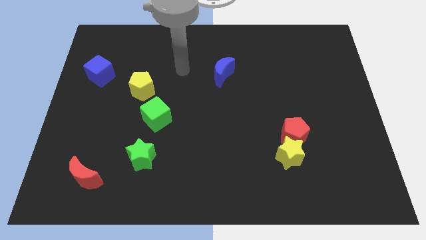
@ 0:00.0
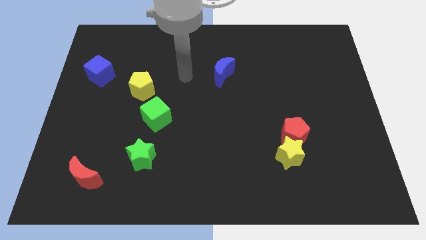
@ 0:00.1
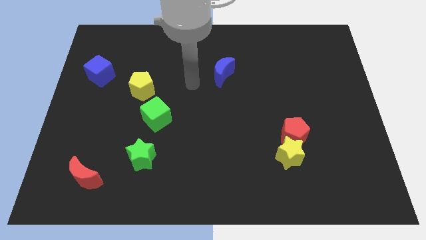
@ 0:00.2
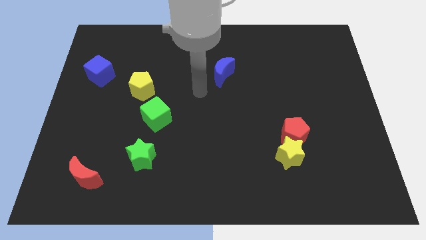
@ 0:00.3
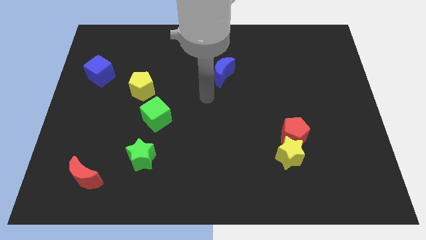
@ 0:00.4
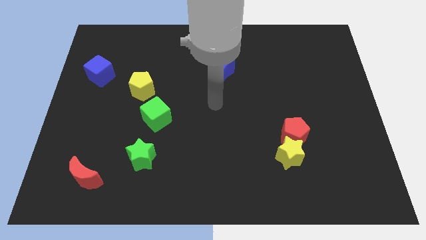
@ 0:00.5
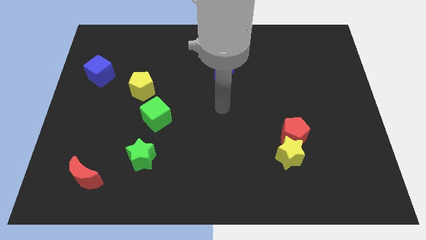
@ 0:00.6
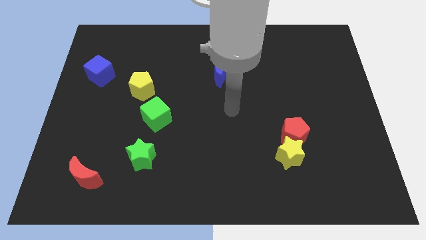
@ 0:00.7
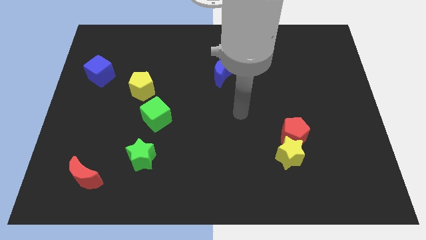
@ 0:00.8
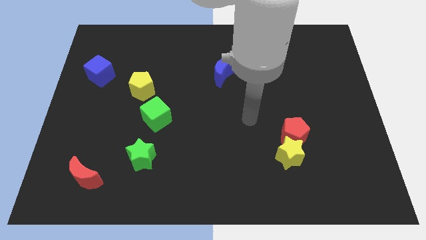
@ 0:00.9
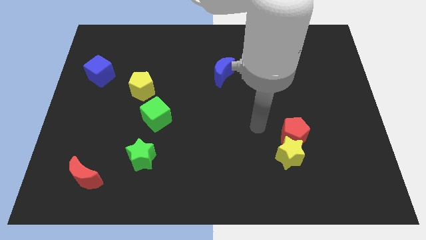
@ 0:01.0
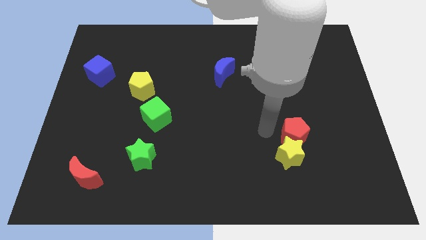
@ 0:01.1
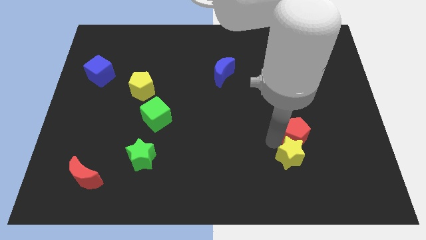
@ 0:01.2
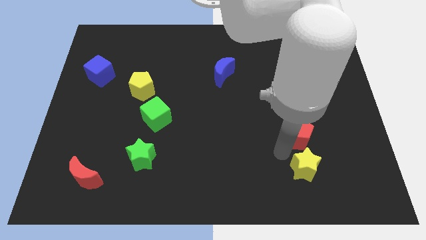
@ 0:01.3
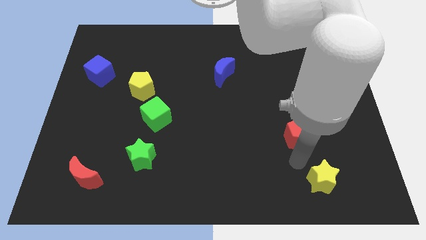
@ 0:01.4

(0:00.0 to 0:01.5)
separate the red pentagon from the yellow star

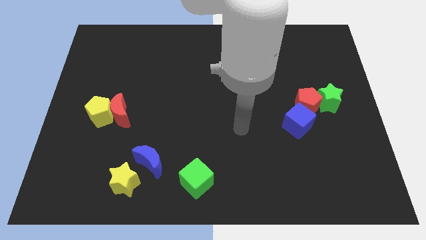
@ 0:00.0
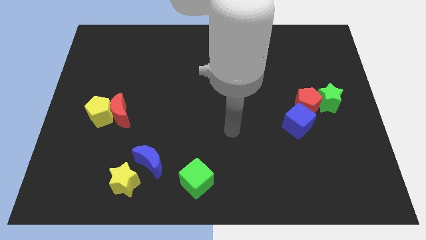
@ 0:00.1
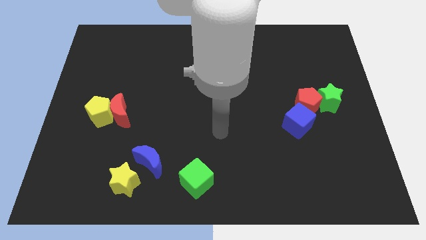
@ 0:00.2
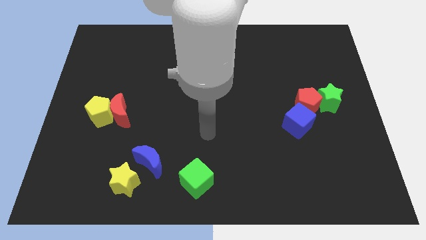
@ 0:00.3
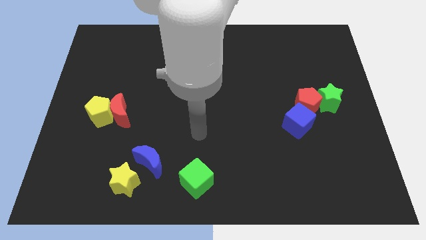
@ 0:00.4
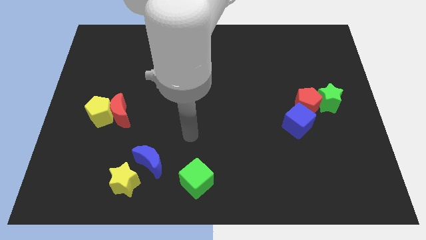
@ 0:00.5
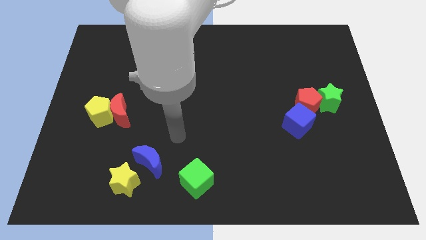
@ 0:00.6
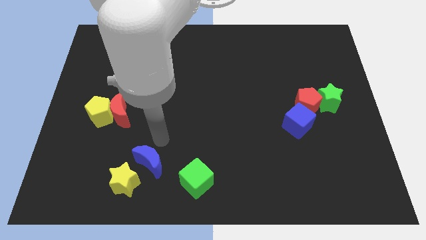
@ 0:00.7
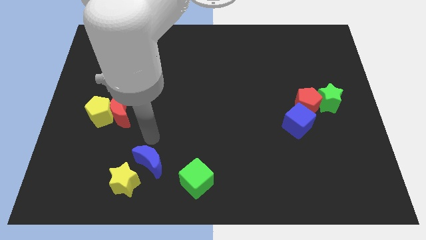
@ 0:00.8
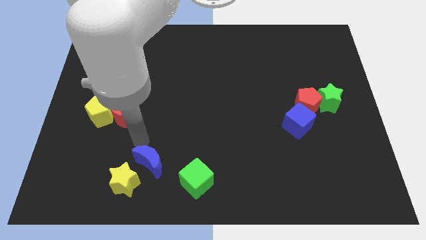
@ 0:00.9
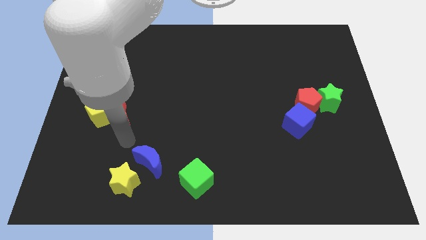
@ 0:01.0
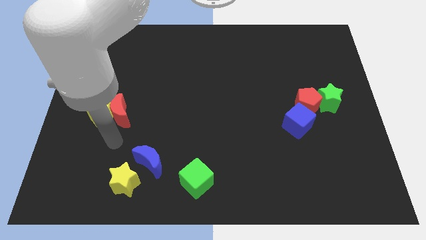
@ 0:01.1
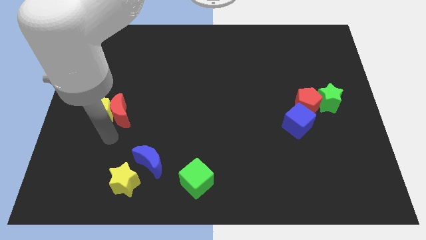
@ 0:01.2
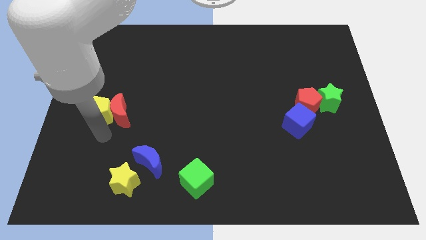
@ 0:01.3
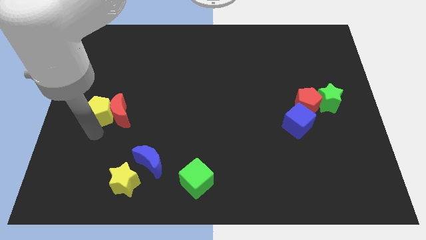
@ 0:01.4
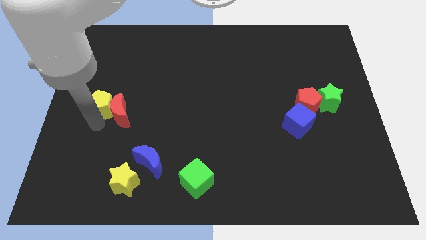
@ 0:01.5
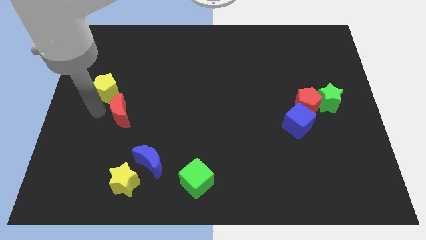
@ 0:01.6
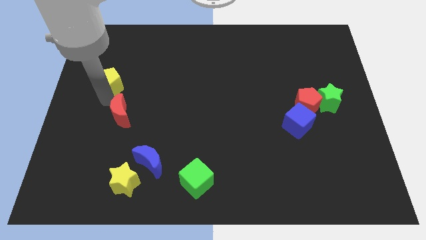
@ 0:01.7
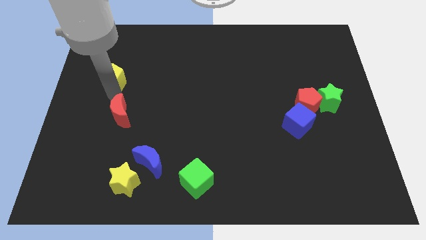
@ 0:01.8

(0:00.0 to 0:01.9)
move the red moon away from the yellow pentagon

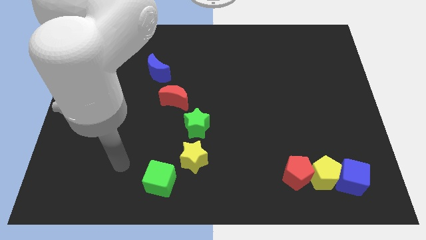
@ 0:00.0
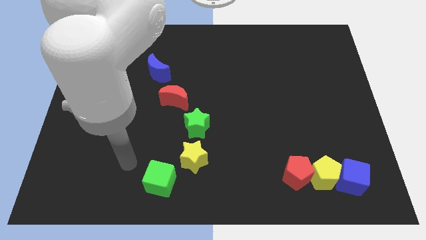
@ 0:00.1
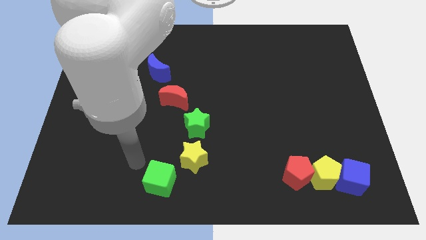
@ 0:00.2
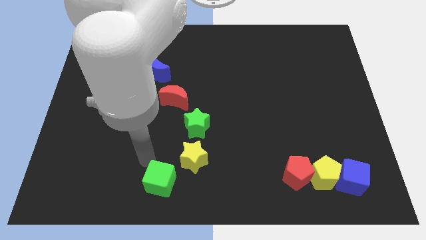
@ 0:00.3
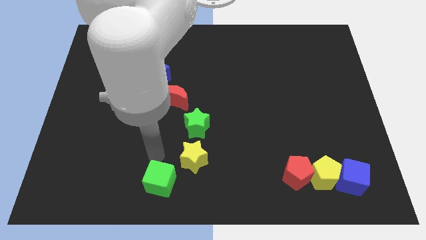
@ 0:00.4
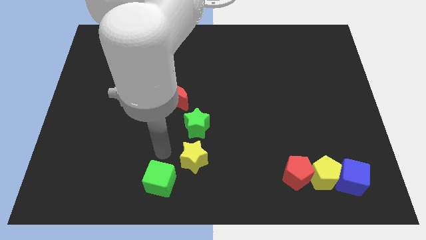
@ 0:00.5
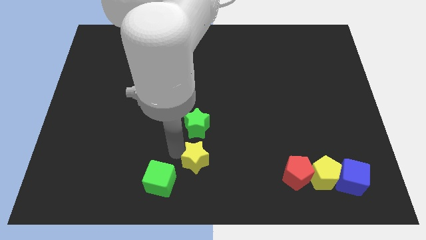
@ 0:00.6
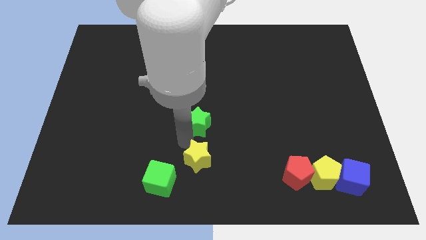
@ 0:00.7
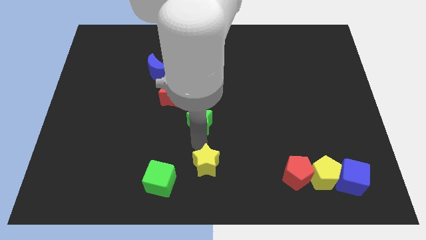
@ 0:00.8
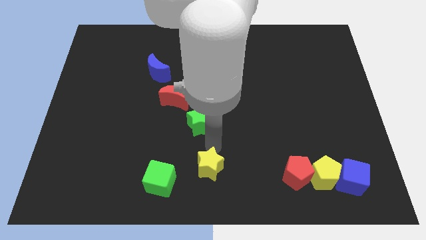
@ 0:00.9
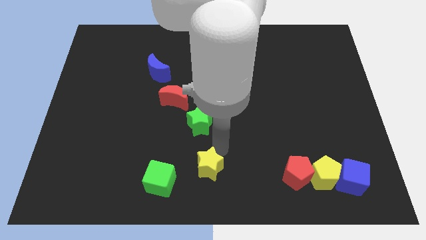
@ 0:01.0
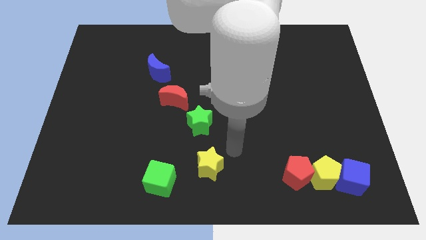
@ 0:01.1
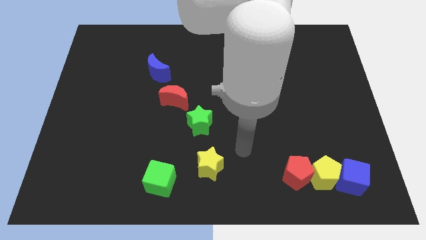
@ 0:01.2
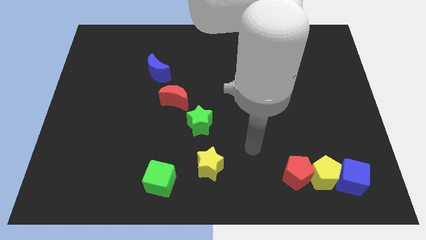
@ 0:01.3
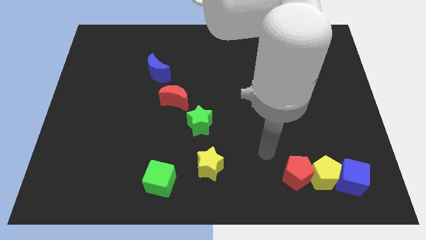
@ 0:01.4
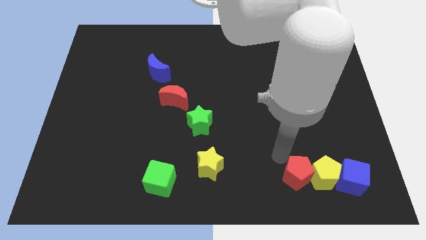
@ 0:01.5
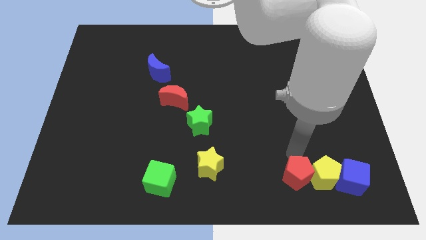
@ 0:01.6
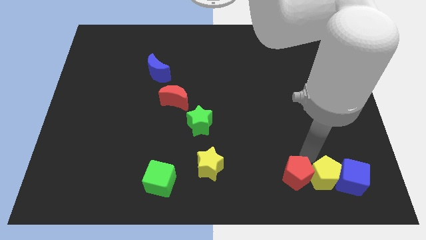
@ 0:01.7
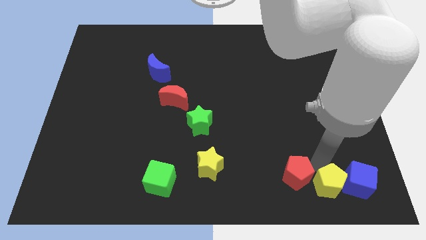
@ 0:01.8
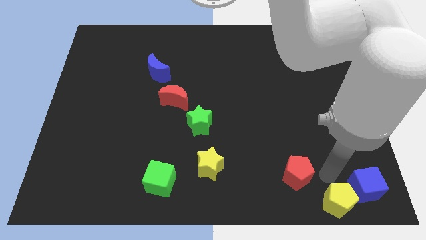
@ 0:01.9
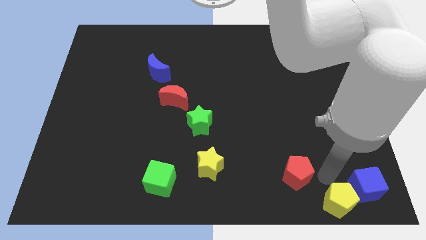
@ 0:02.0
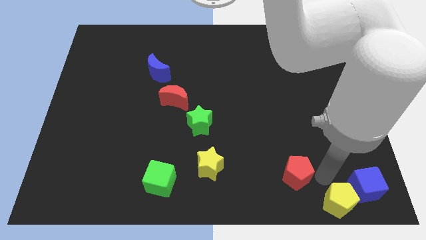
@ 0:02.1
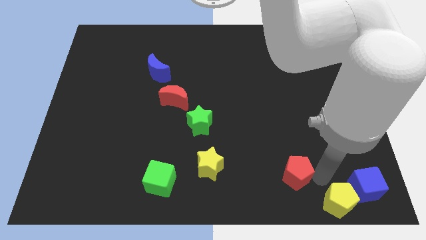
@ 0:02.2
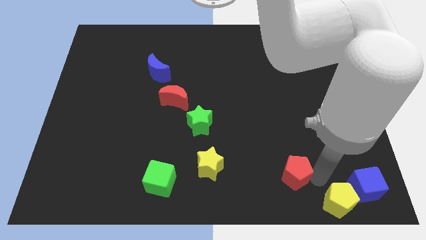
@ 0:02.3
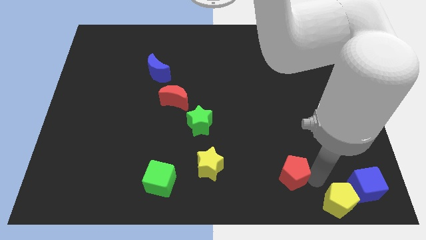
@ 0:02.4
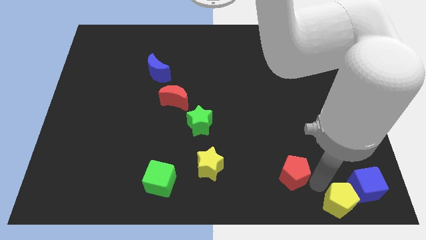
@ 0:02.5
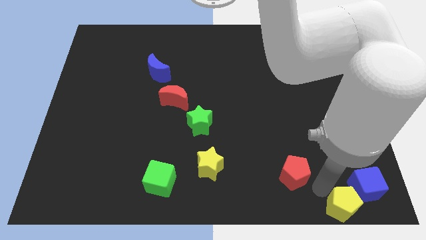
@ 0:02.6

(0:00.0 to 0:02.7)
pull the red pentagon apart from the yellow pentagon

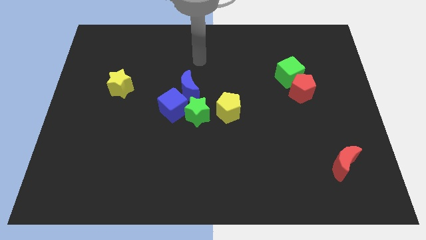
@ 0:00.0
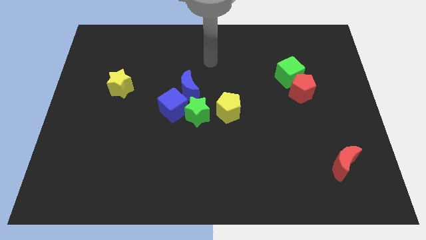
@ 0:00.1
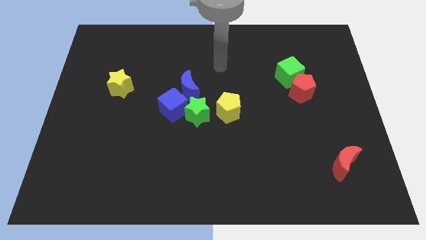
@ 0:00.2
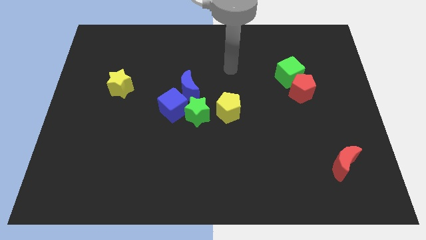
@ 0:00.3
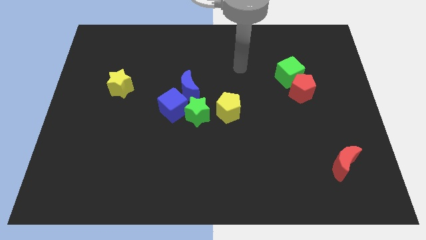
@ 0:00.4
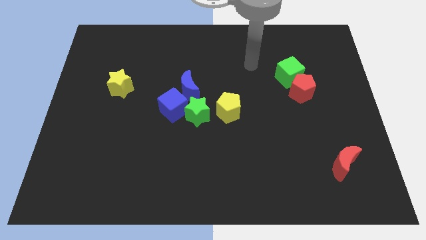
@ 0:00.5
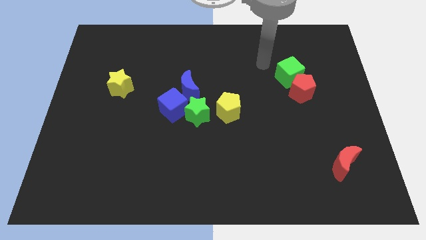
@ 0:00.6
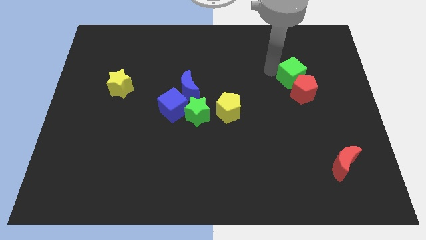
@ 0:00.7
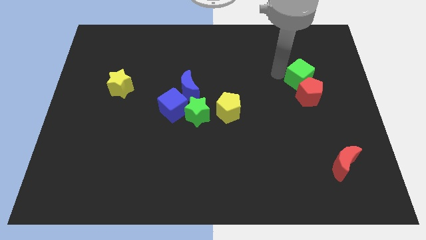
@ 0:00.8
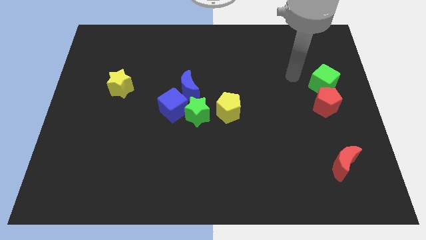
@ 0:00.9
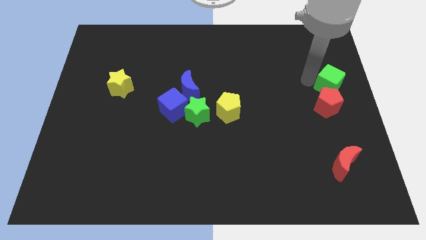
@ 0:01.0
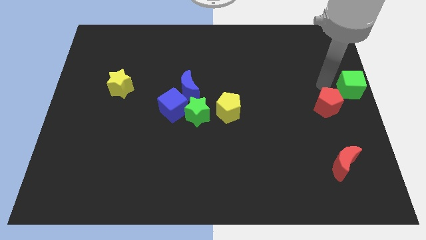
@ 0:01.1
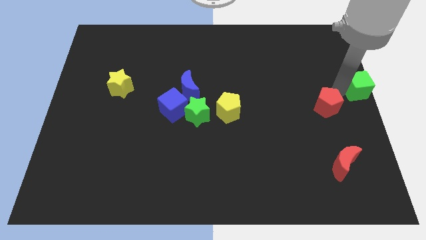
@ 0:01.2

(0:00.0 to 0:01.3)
separate the red pentagon from the green cube

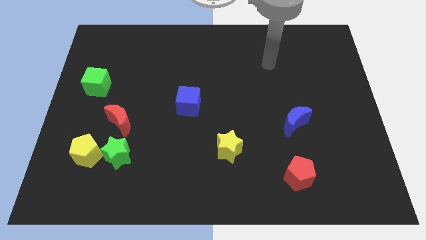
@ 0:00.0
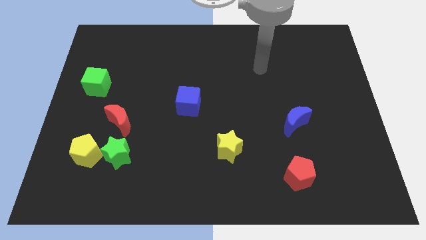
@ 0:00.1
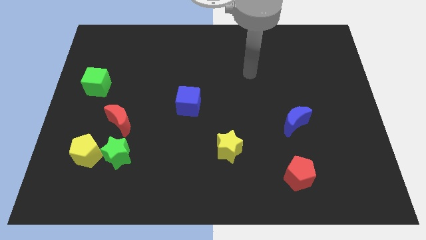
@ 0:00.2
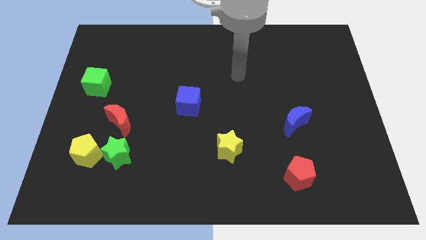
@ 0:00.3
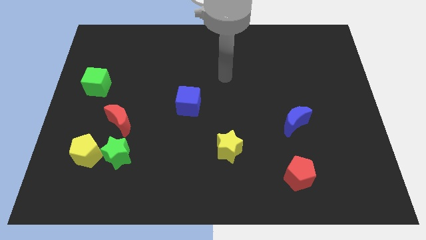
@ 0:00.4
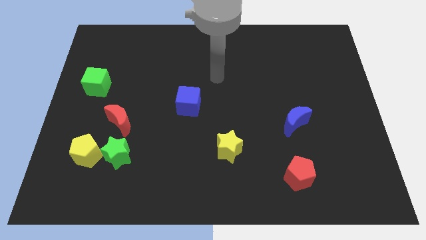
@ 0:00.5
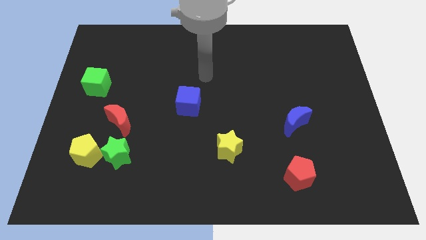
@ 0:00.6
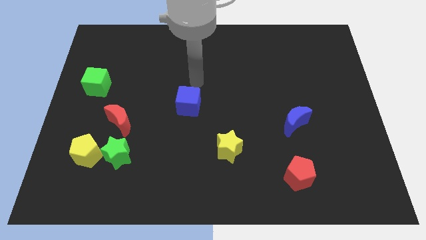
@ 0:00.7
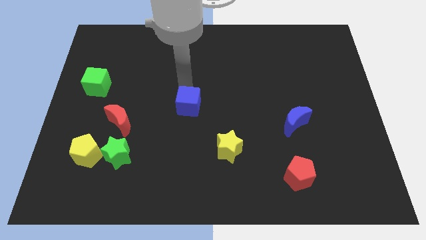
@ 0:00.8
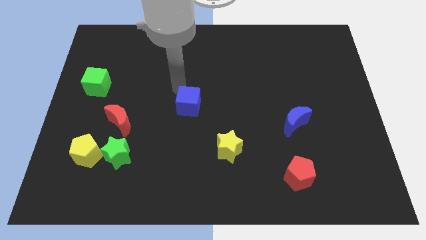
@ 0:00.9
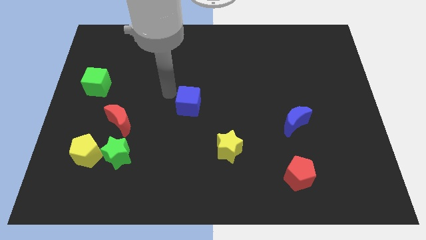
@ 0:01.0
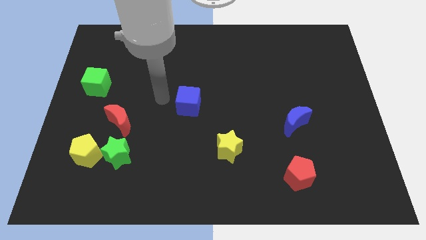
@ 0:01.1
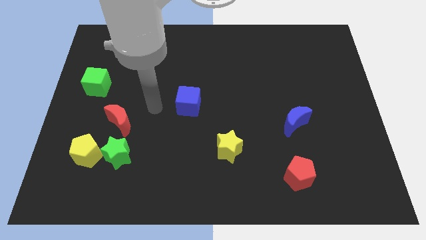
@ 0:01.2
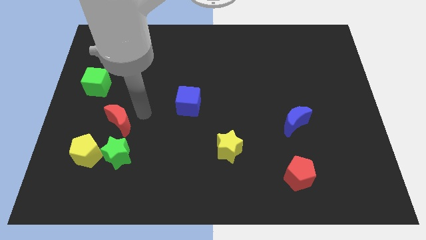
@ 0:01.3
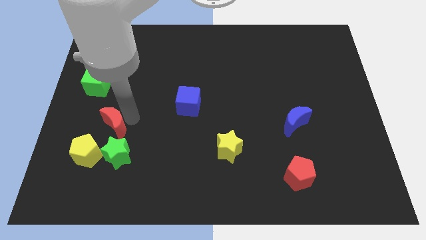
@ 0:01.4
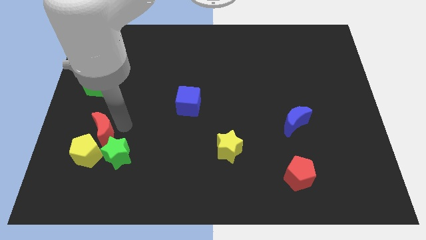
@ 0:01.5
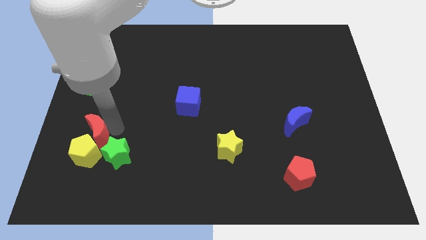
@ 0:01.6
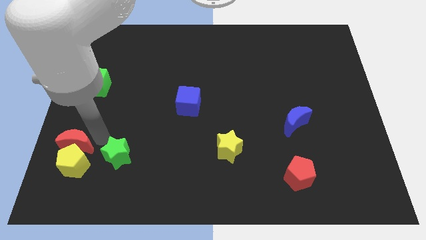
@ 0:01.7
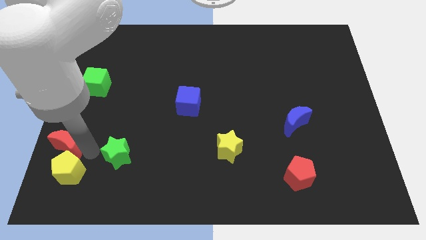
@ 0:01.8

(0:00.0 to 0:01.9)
move the green star away from the yellow pentagon and red moon
